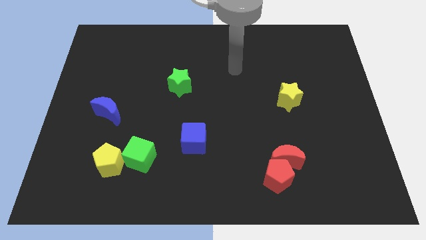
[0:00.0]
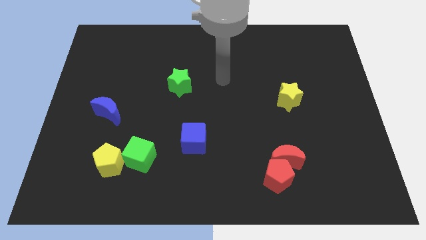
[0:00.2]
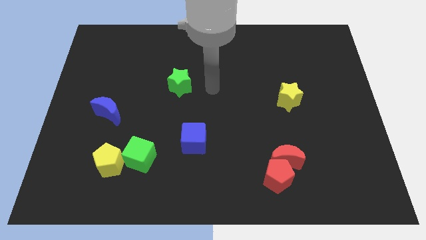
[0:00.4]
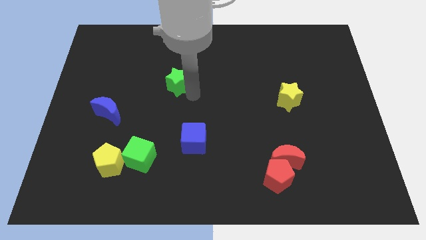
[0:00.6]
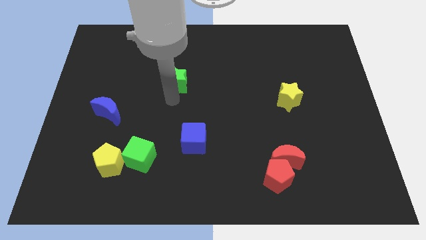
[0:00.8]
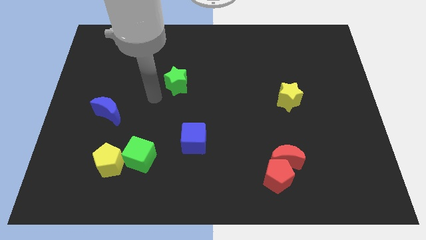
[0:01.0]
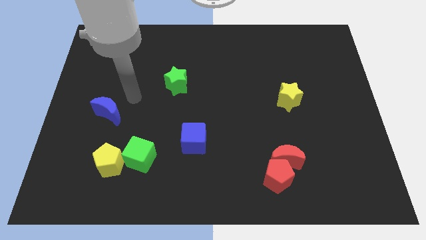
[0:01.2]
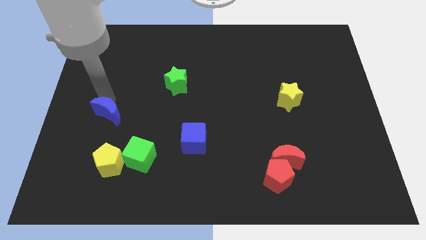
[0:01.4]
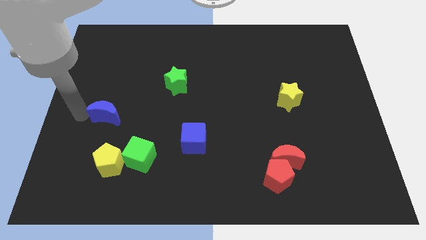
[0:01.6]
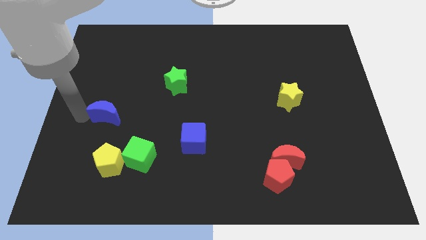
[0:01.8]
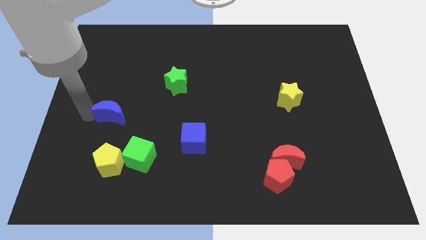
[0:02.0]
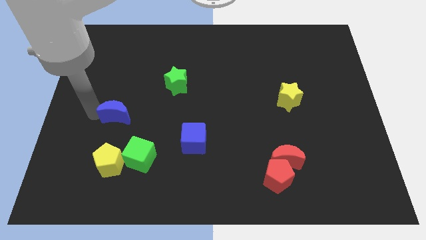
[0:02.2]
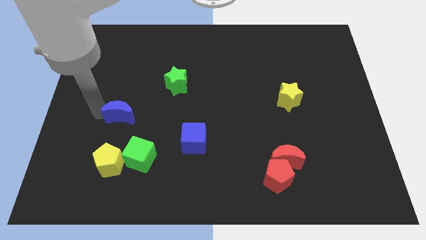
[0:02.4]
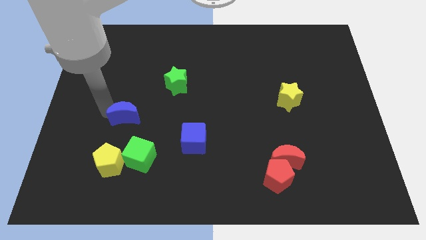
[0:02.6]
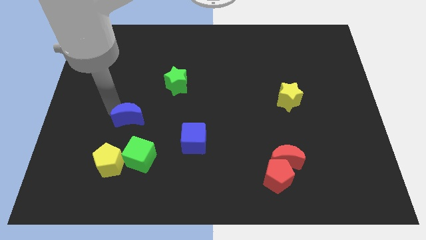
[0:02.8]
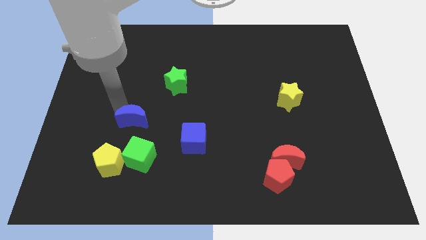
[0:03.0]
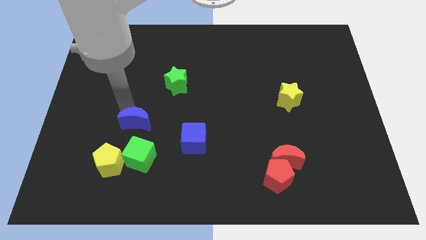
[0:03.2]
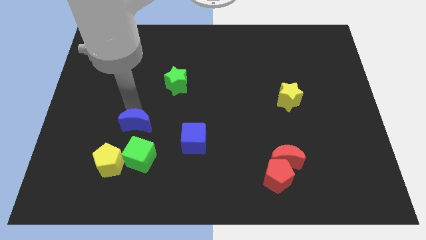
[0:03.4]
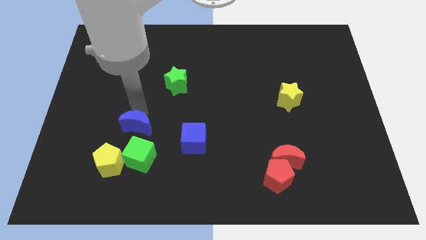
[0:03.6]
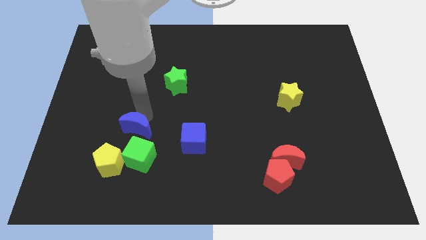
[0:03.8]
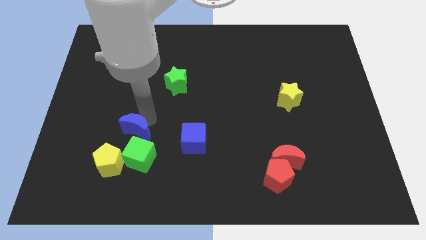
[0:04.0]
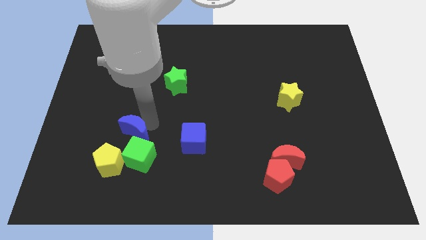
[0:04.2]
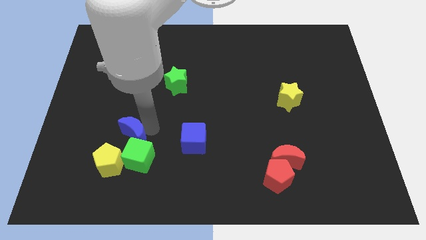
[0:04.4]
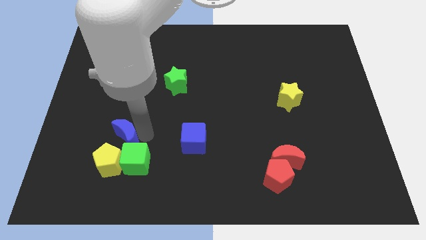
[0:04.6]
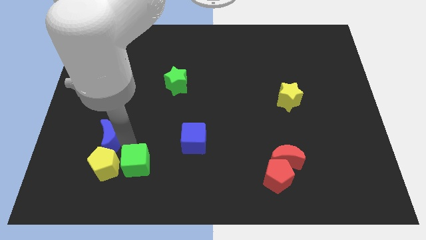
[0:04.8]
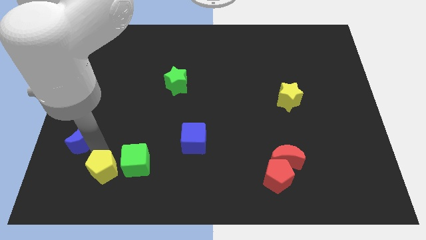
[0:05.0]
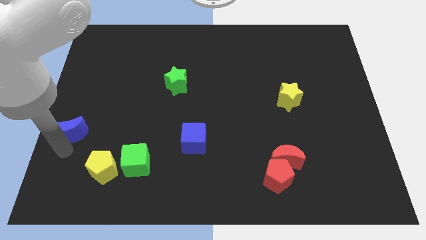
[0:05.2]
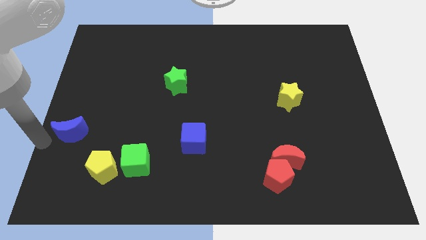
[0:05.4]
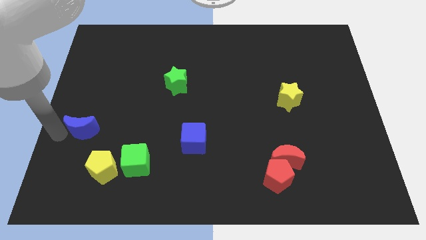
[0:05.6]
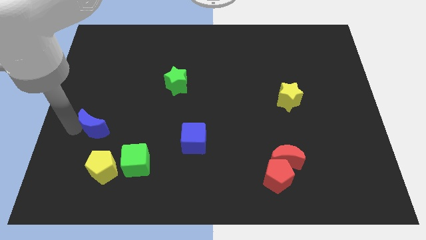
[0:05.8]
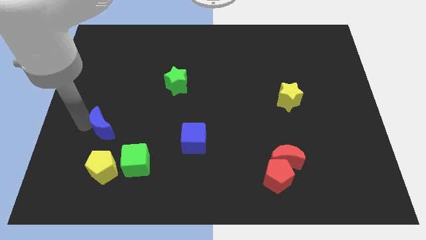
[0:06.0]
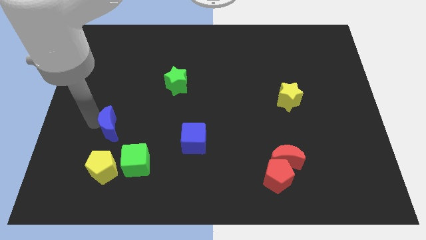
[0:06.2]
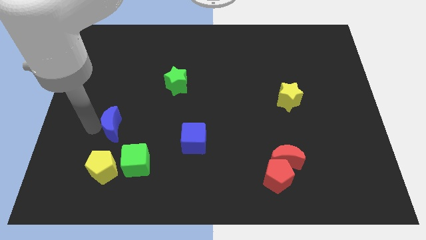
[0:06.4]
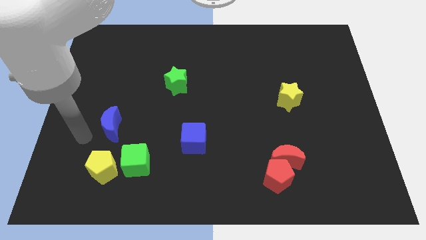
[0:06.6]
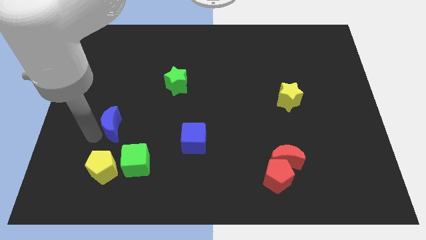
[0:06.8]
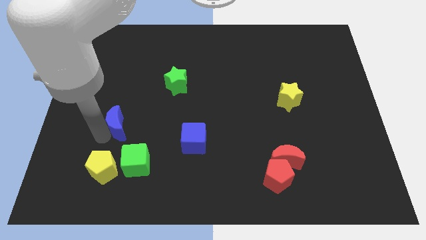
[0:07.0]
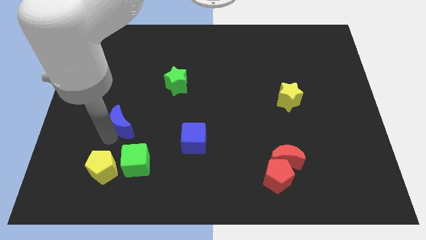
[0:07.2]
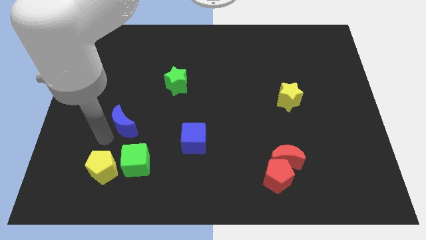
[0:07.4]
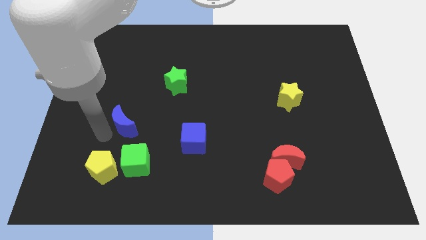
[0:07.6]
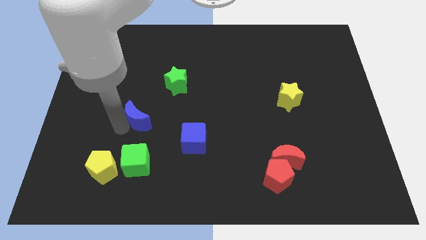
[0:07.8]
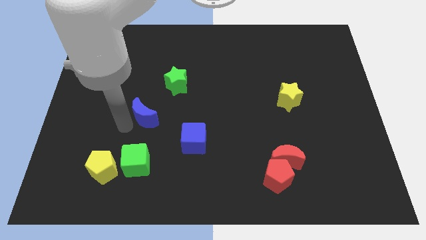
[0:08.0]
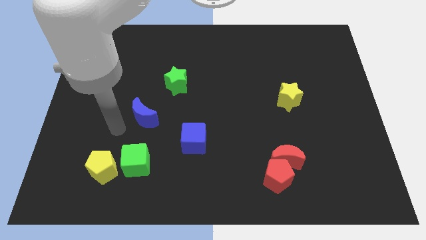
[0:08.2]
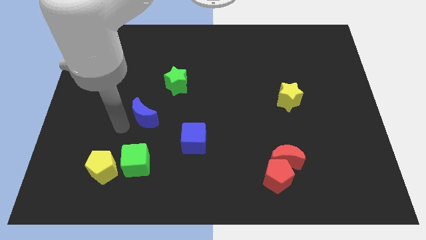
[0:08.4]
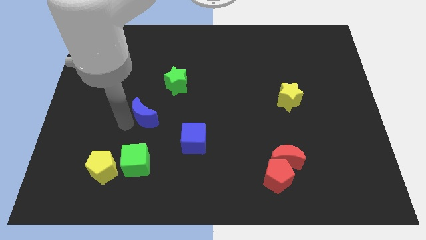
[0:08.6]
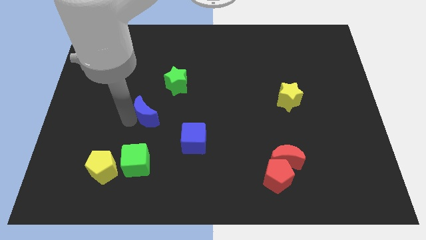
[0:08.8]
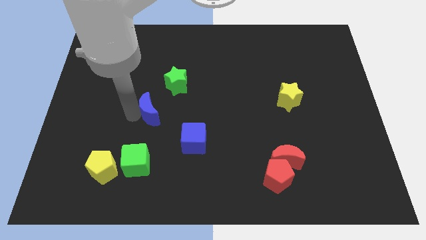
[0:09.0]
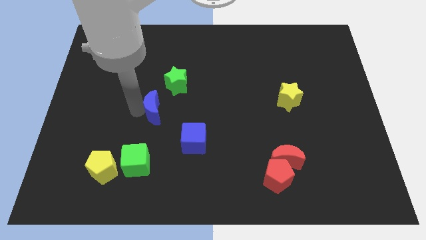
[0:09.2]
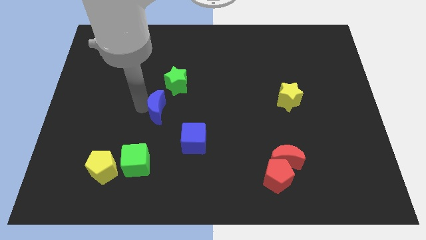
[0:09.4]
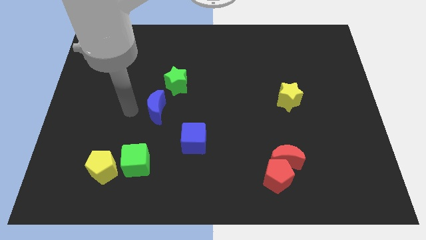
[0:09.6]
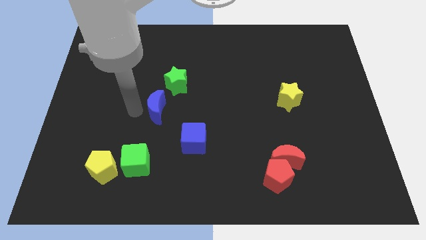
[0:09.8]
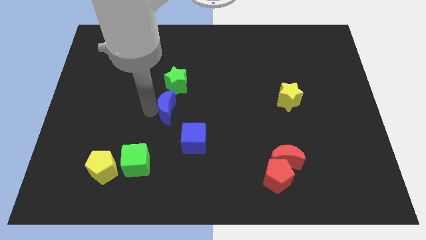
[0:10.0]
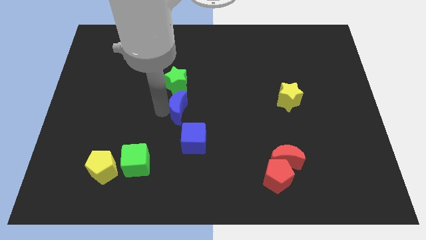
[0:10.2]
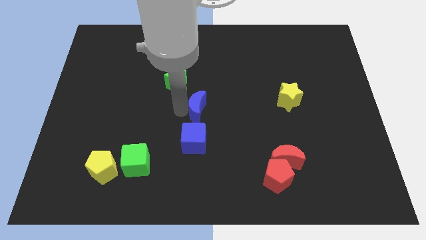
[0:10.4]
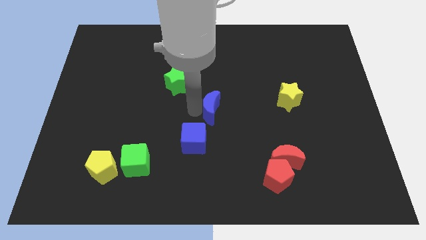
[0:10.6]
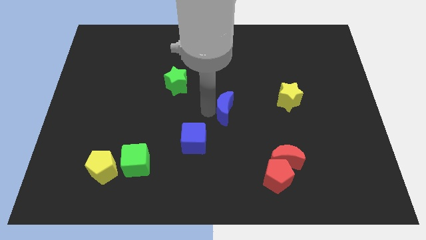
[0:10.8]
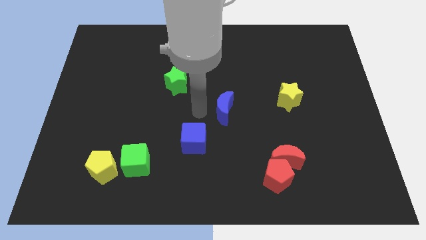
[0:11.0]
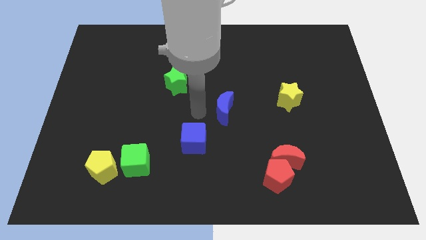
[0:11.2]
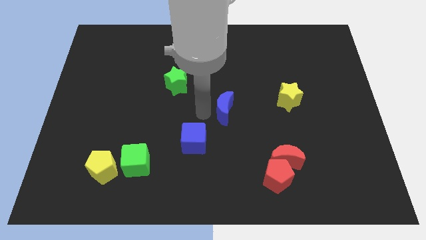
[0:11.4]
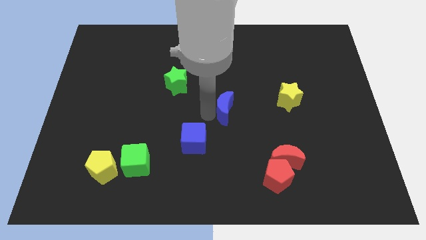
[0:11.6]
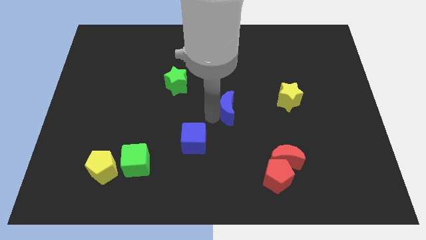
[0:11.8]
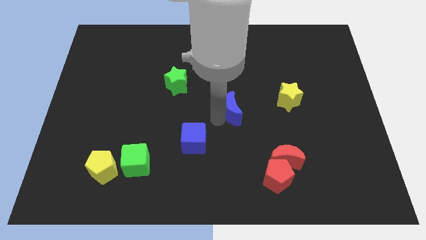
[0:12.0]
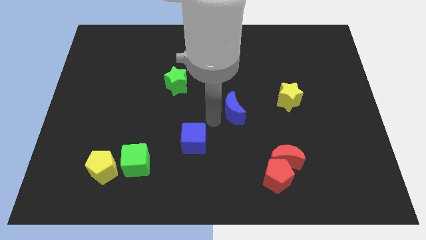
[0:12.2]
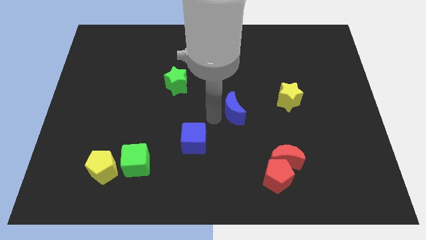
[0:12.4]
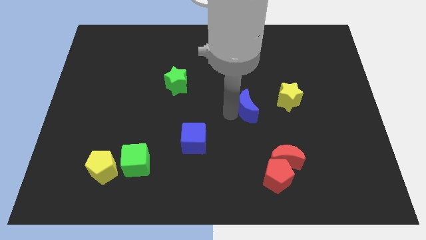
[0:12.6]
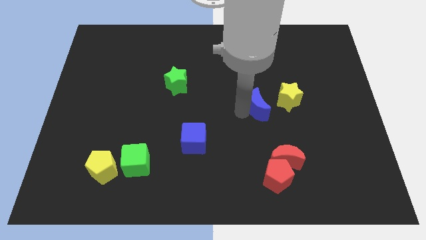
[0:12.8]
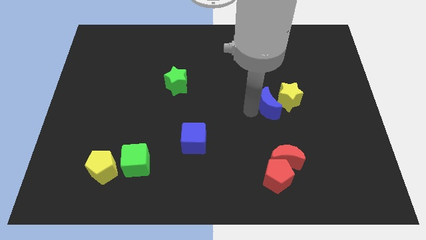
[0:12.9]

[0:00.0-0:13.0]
move the blue moon towards the yellow star
